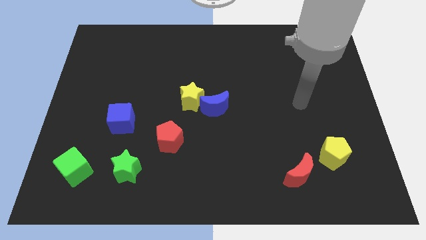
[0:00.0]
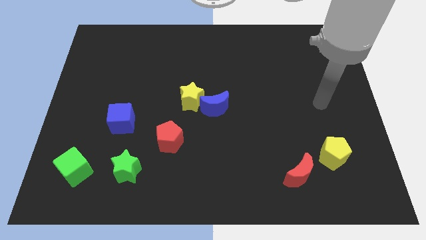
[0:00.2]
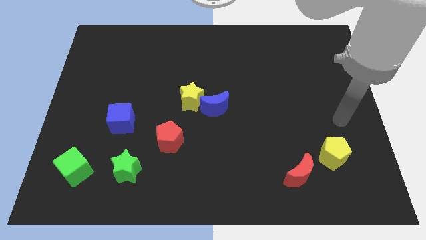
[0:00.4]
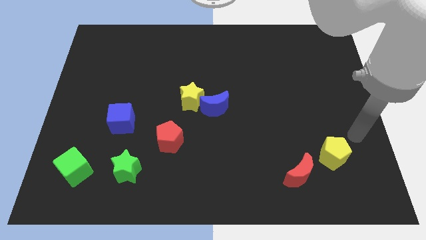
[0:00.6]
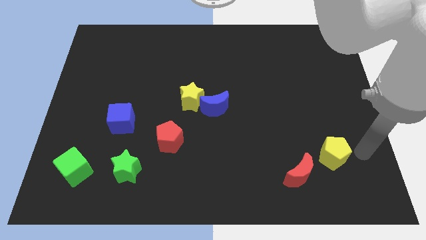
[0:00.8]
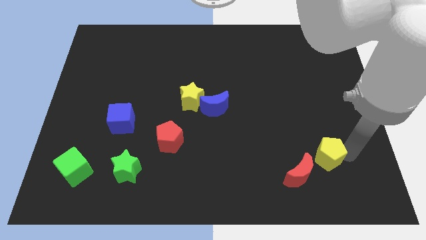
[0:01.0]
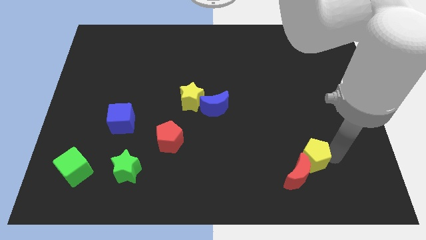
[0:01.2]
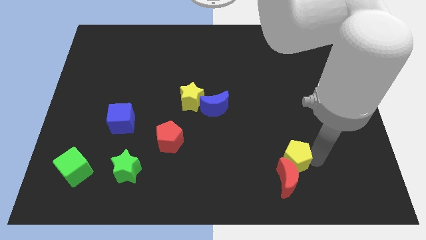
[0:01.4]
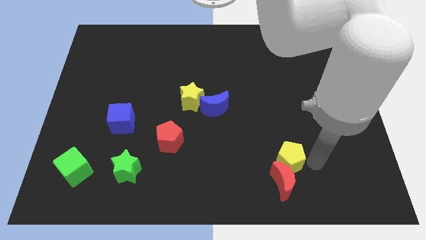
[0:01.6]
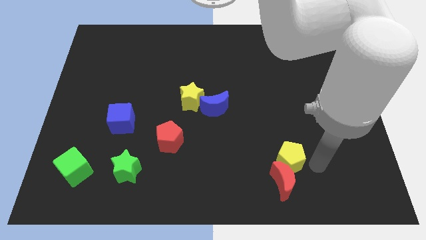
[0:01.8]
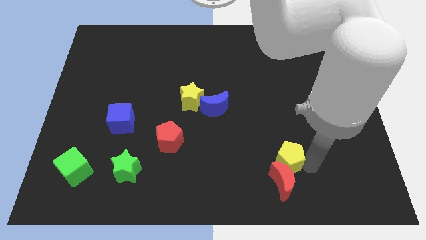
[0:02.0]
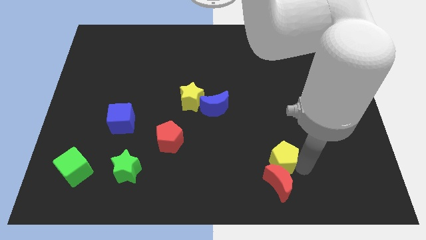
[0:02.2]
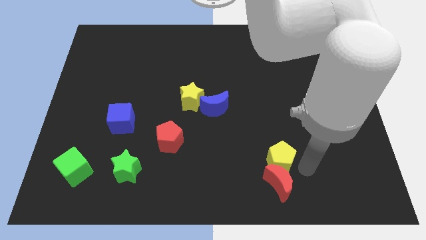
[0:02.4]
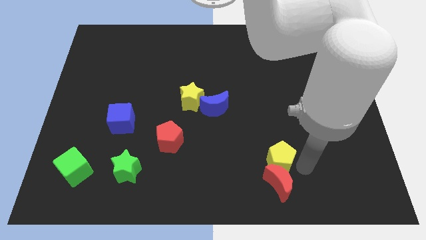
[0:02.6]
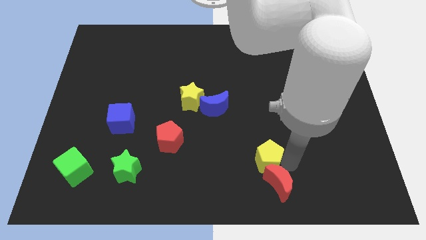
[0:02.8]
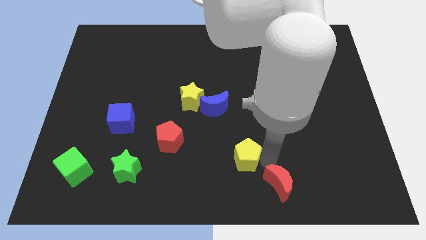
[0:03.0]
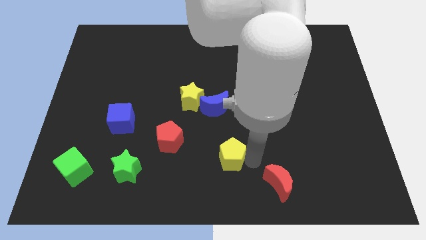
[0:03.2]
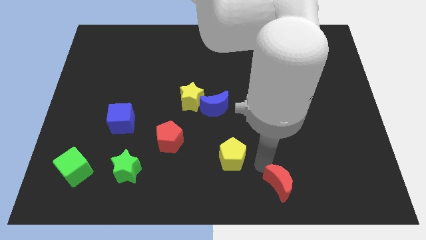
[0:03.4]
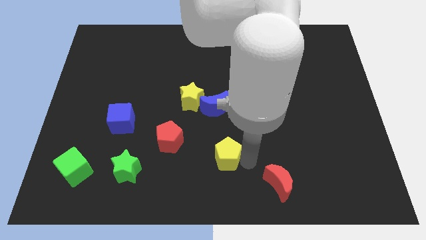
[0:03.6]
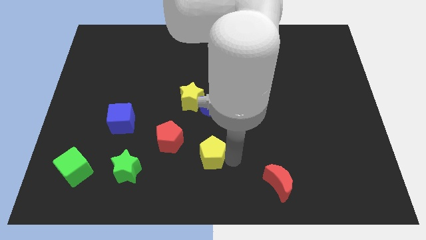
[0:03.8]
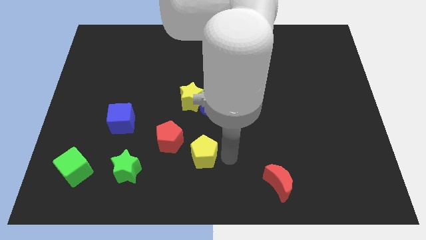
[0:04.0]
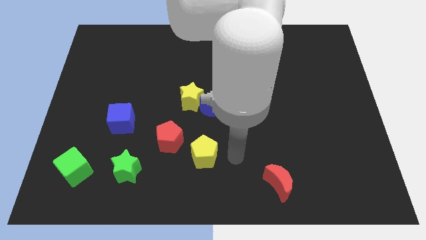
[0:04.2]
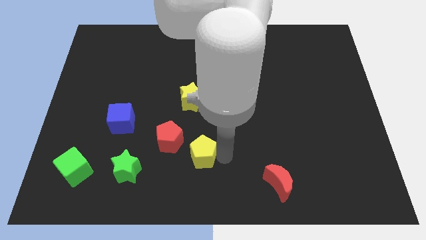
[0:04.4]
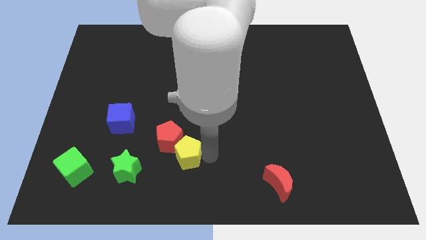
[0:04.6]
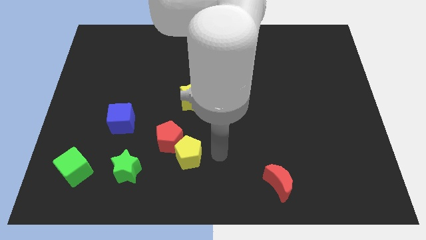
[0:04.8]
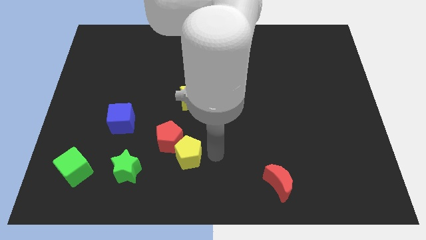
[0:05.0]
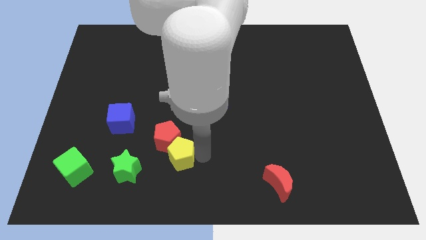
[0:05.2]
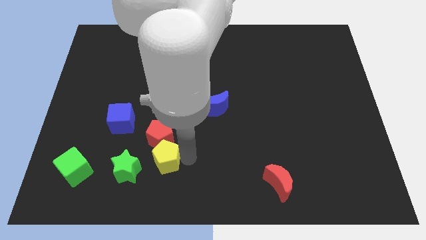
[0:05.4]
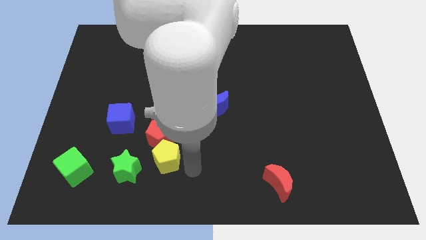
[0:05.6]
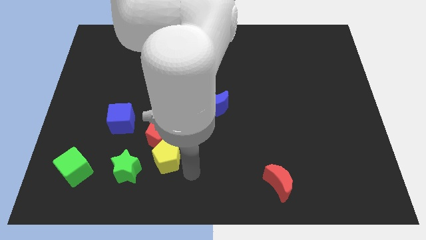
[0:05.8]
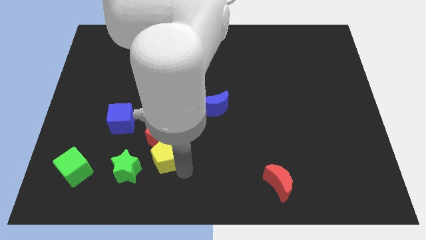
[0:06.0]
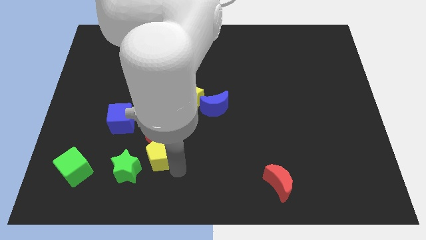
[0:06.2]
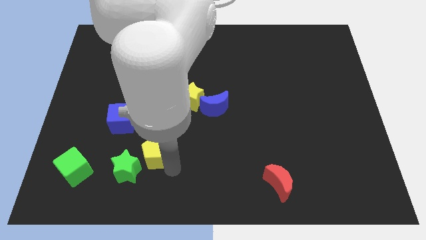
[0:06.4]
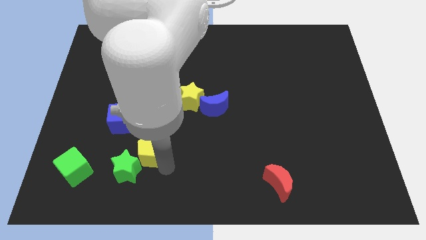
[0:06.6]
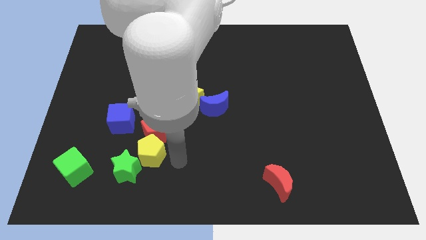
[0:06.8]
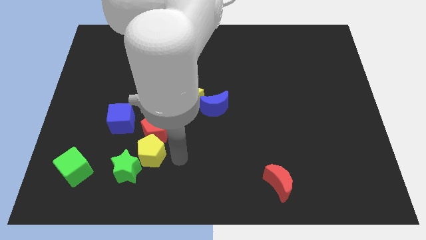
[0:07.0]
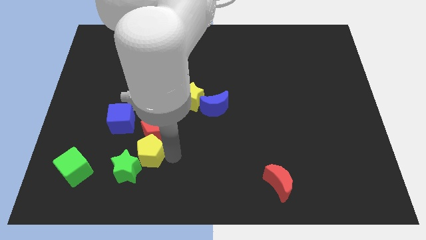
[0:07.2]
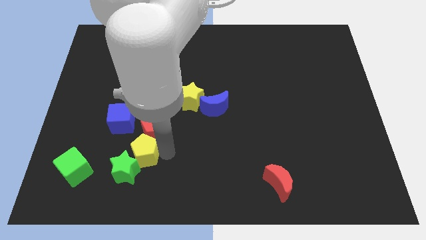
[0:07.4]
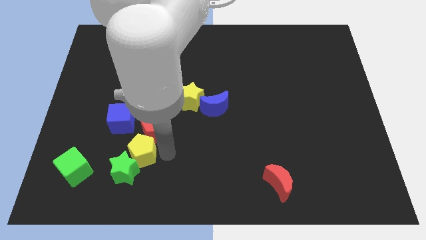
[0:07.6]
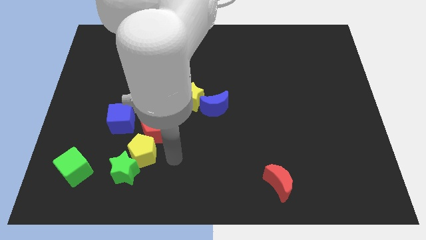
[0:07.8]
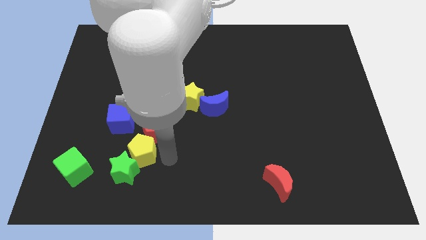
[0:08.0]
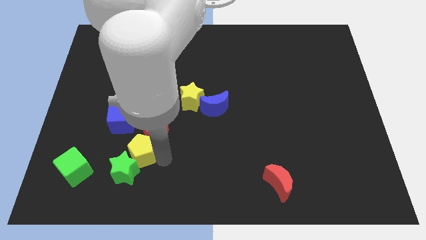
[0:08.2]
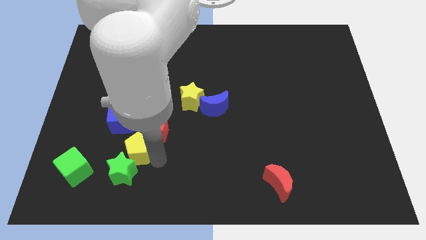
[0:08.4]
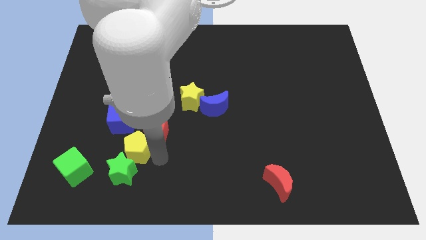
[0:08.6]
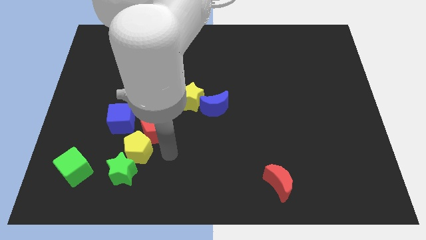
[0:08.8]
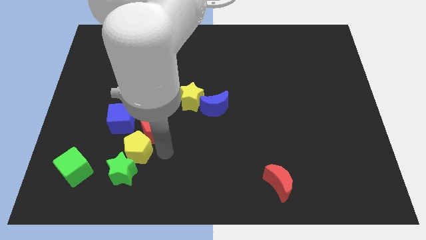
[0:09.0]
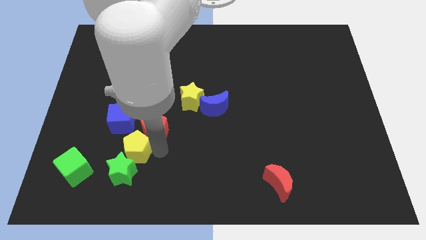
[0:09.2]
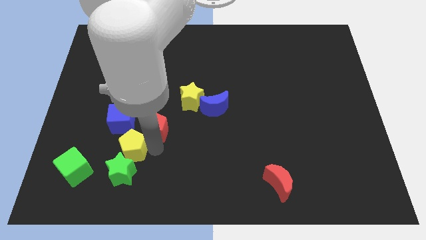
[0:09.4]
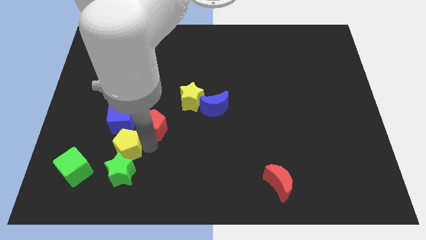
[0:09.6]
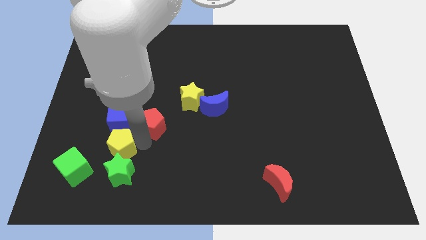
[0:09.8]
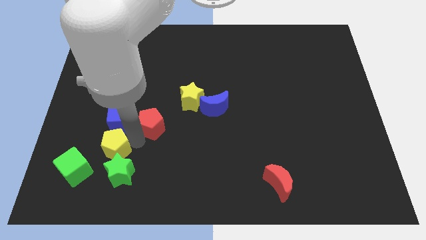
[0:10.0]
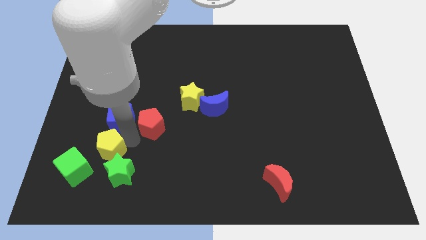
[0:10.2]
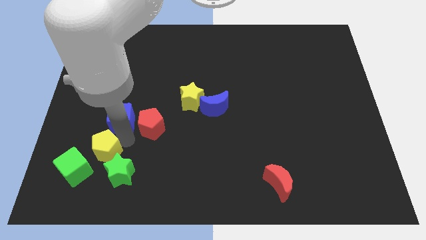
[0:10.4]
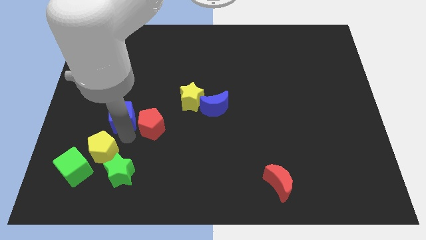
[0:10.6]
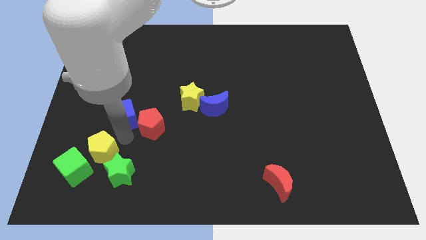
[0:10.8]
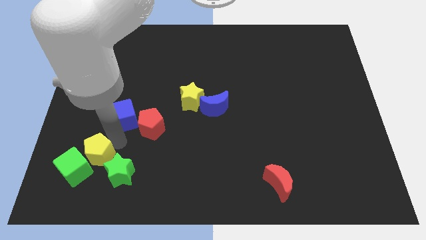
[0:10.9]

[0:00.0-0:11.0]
push the yellow pentagon close to the green cube

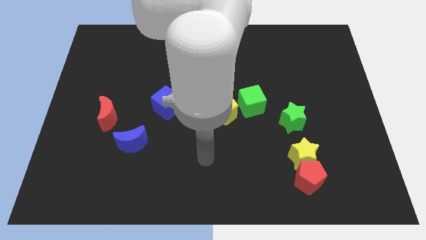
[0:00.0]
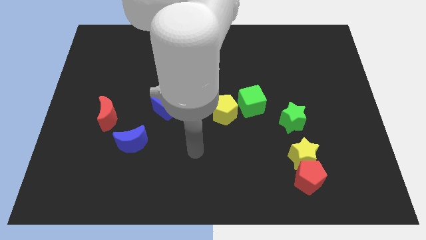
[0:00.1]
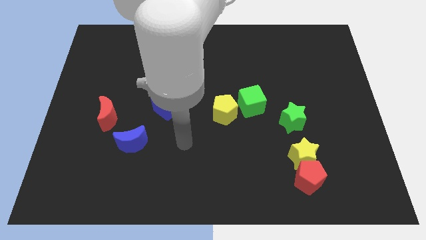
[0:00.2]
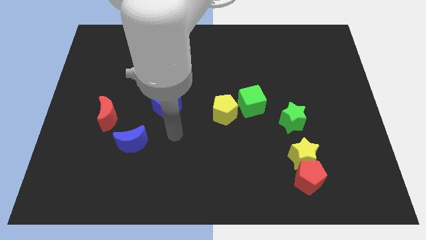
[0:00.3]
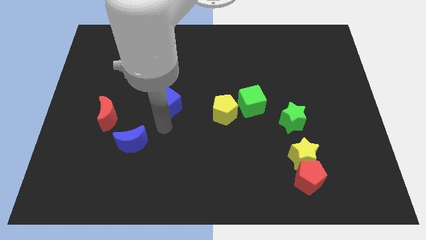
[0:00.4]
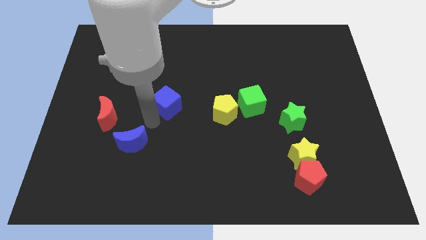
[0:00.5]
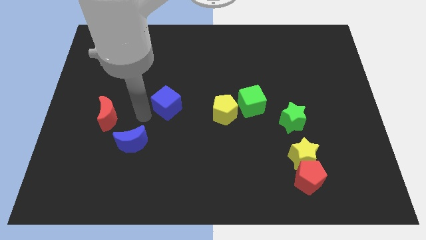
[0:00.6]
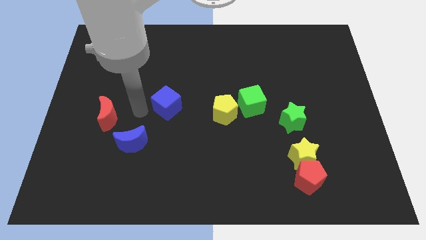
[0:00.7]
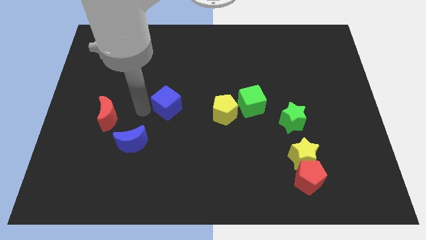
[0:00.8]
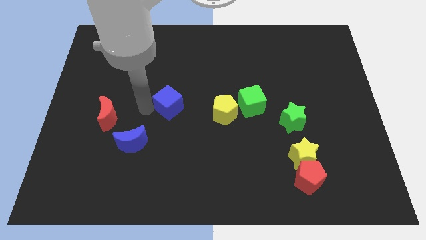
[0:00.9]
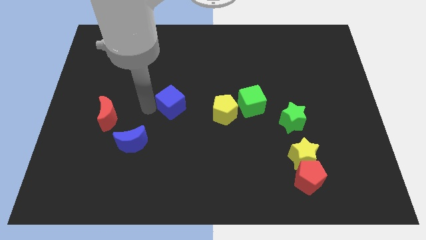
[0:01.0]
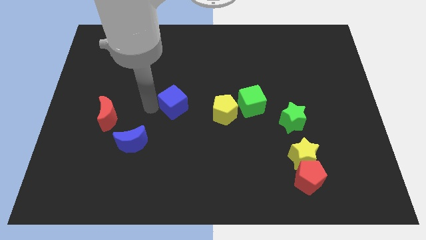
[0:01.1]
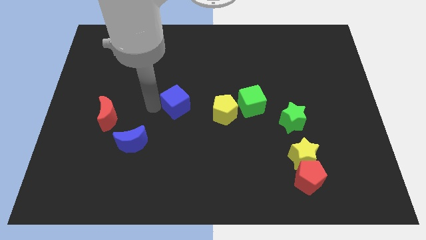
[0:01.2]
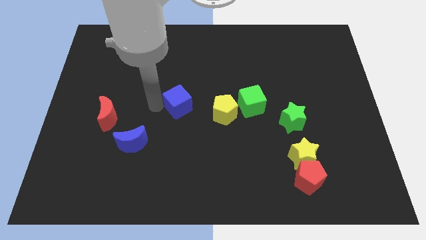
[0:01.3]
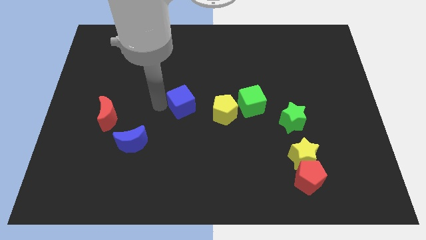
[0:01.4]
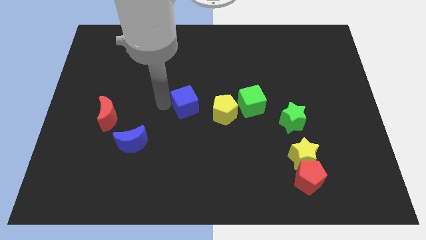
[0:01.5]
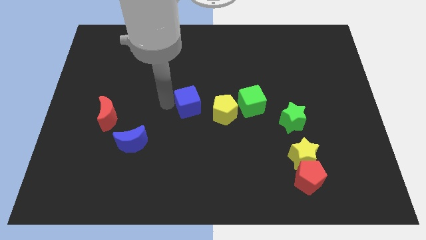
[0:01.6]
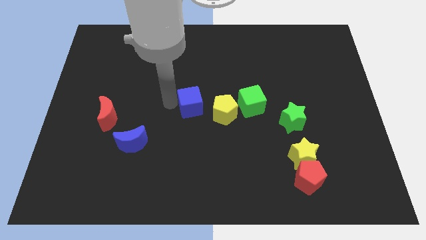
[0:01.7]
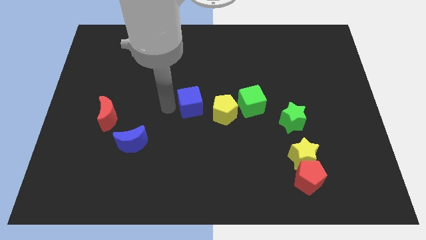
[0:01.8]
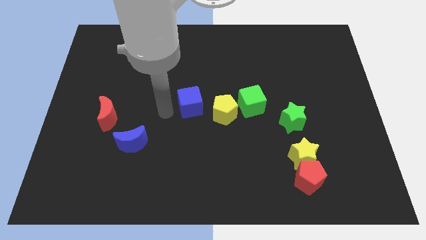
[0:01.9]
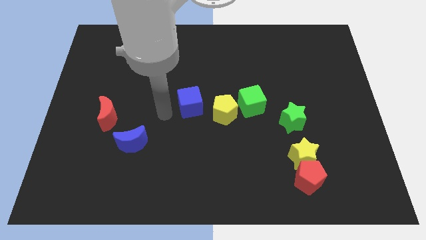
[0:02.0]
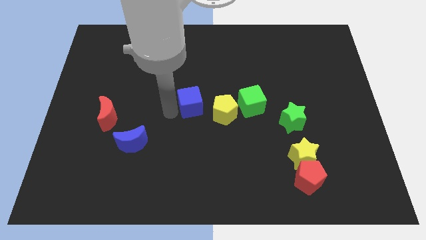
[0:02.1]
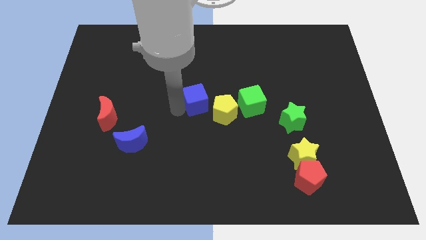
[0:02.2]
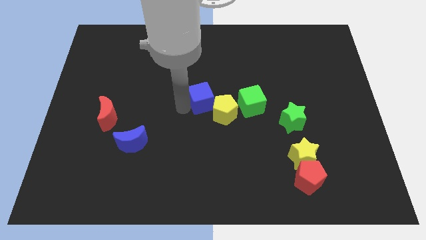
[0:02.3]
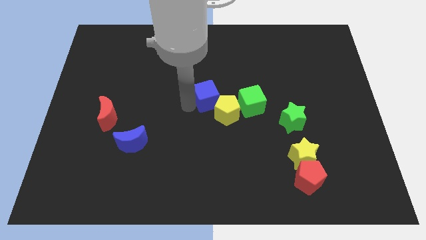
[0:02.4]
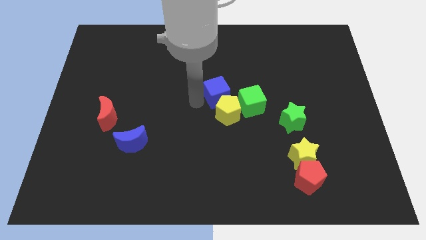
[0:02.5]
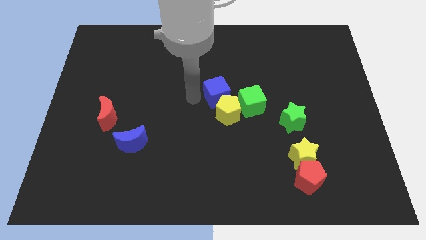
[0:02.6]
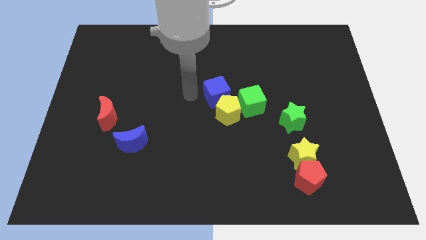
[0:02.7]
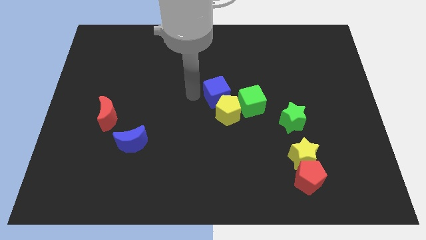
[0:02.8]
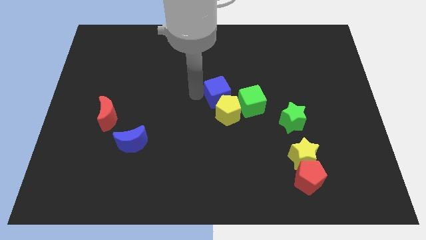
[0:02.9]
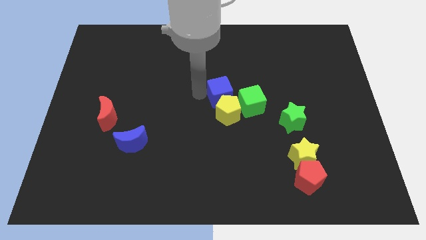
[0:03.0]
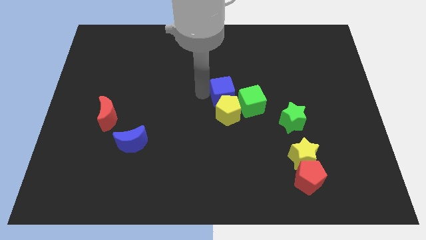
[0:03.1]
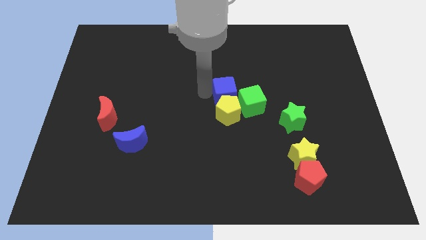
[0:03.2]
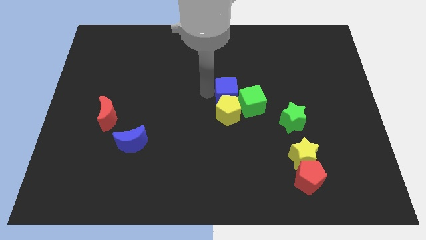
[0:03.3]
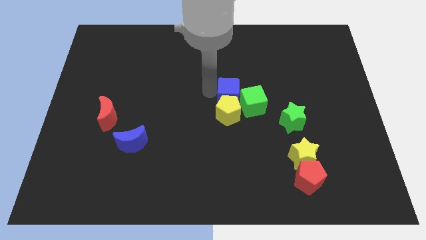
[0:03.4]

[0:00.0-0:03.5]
slide the blue cube towards the green cube
